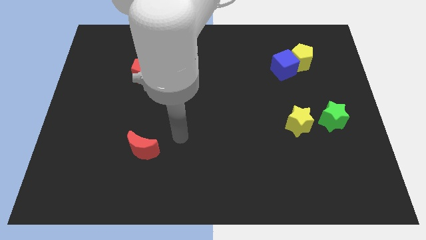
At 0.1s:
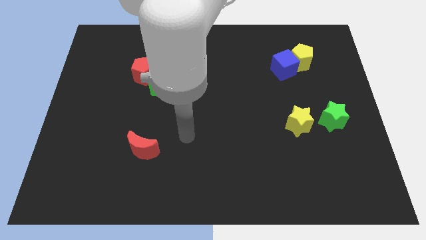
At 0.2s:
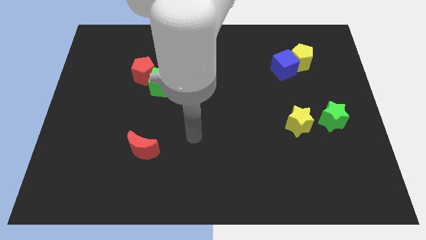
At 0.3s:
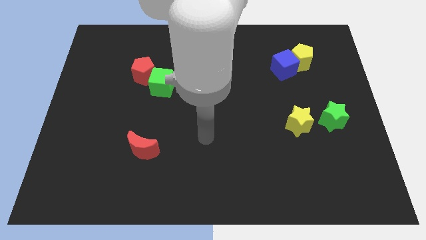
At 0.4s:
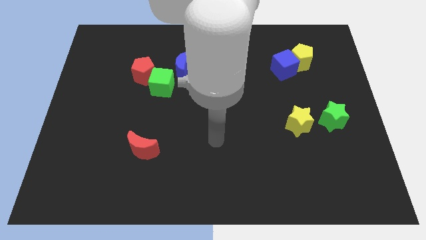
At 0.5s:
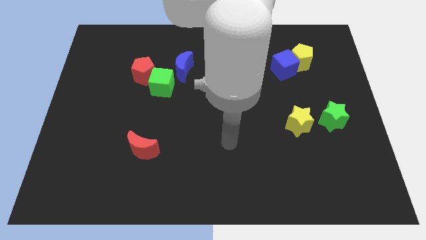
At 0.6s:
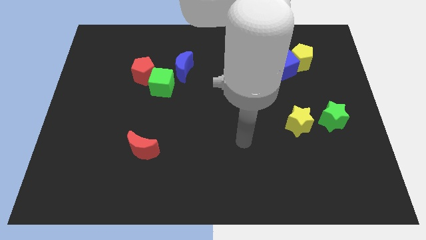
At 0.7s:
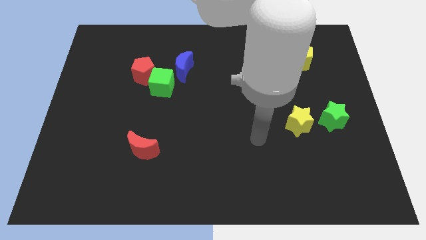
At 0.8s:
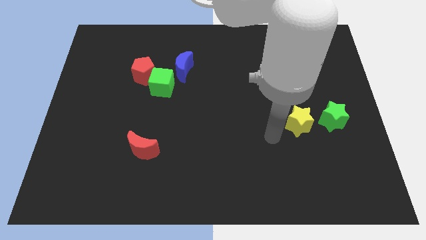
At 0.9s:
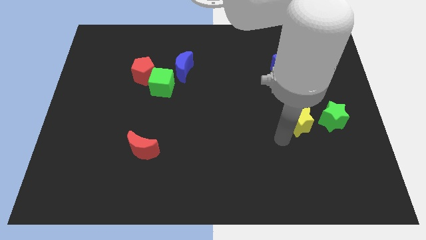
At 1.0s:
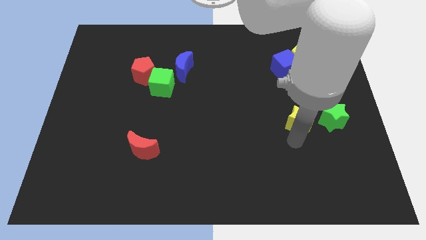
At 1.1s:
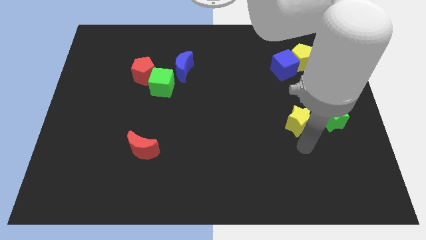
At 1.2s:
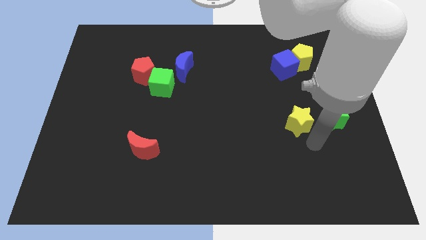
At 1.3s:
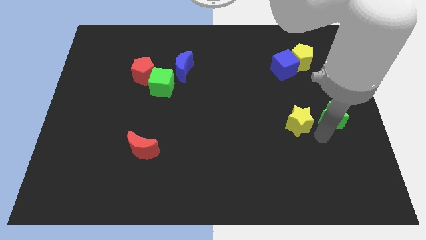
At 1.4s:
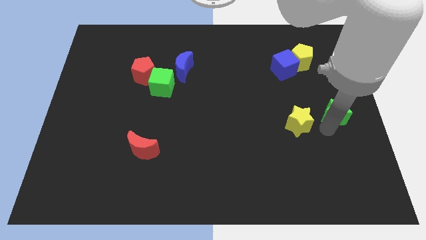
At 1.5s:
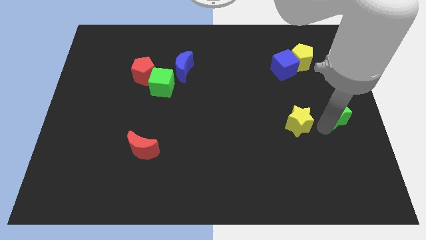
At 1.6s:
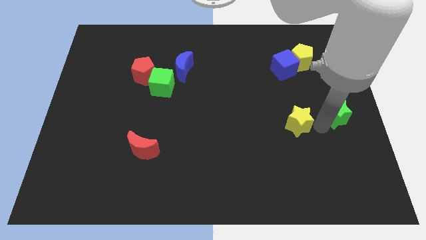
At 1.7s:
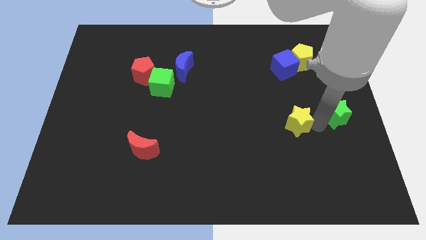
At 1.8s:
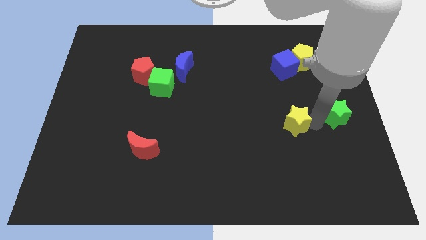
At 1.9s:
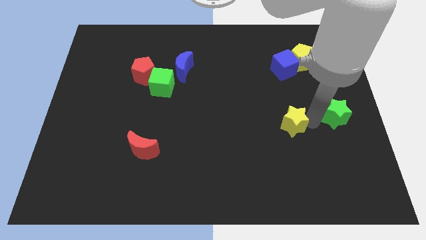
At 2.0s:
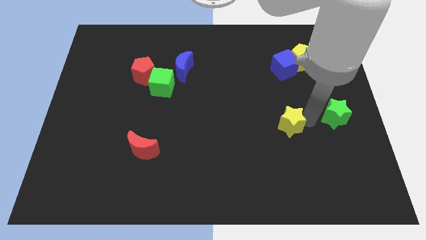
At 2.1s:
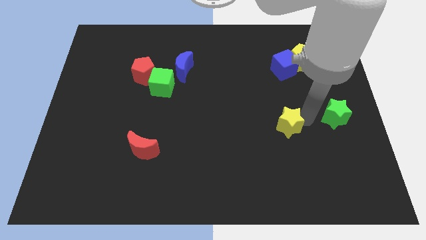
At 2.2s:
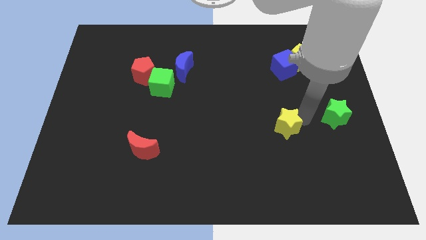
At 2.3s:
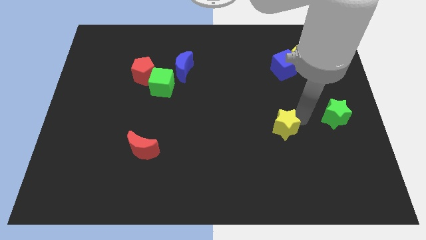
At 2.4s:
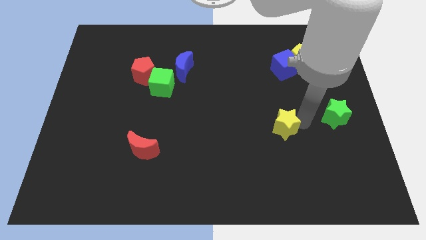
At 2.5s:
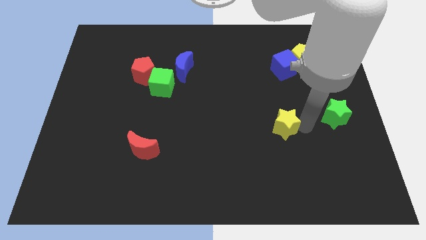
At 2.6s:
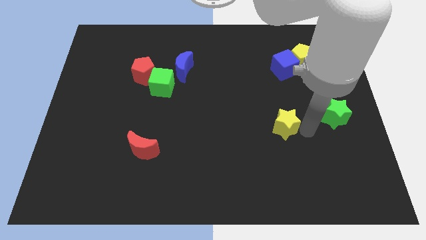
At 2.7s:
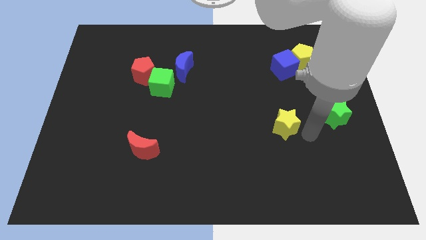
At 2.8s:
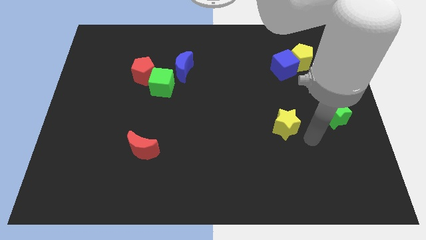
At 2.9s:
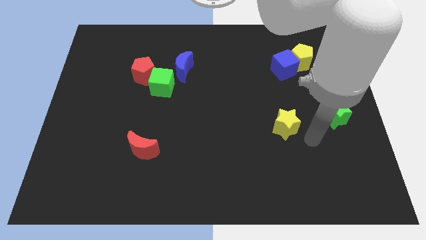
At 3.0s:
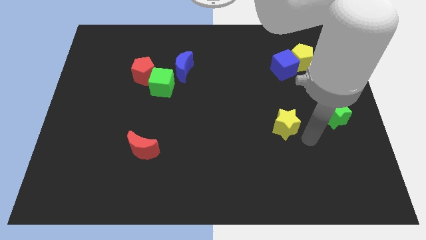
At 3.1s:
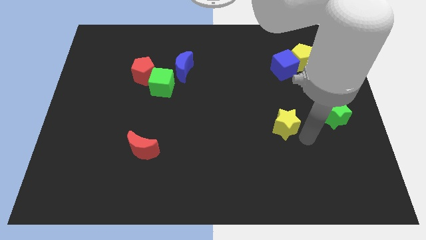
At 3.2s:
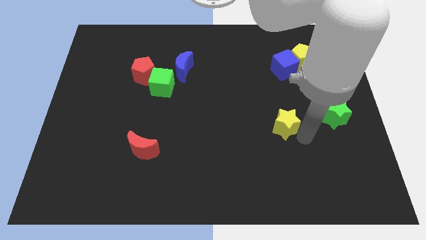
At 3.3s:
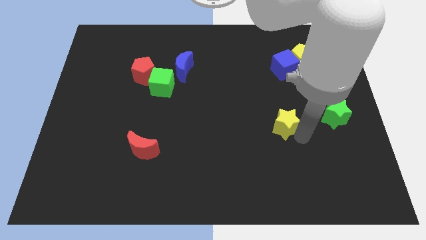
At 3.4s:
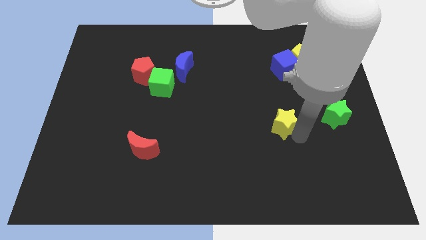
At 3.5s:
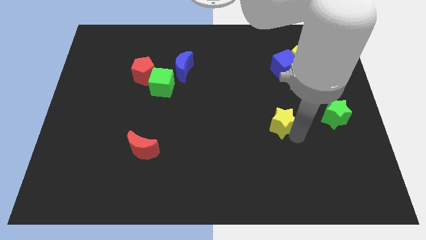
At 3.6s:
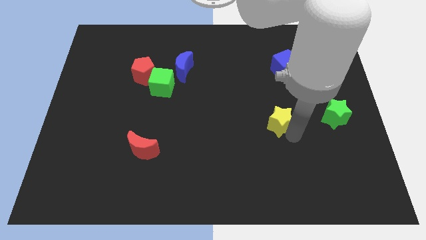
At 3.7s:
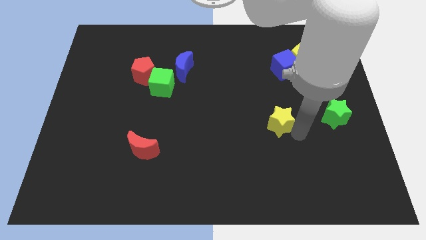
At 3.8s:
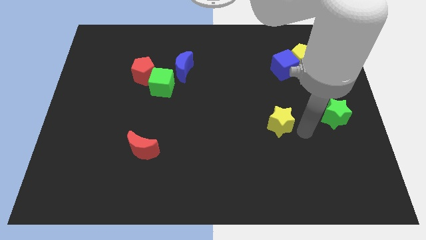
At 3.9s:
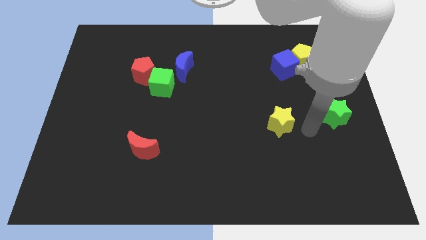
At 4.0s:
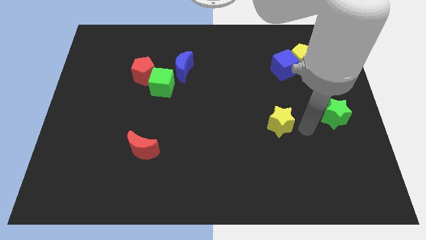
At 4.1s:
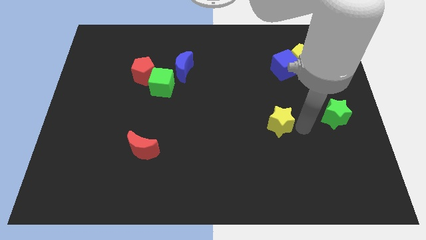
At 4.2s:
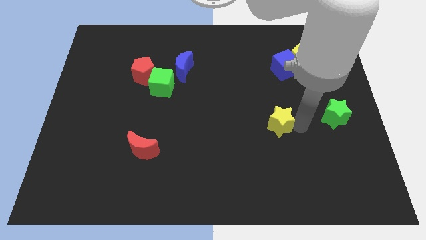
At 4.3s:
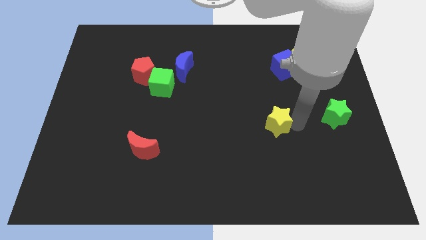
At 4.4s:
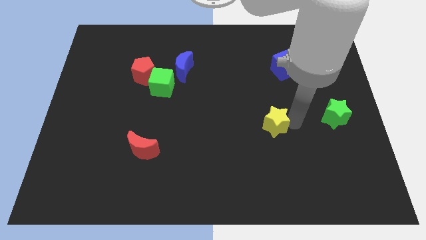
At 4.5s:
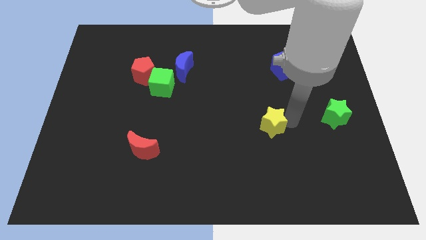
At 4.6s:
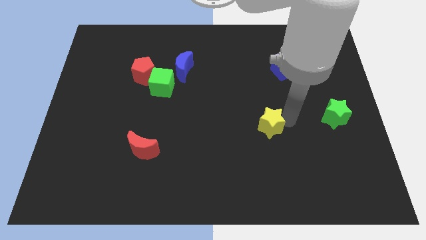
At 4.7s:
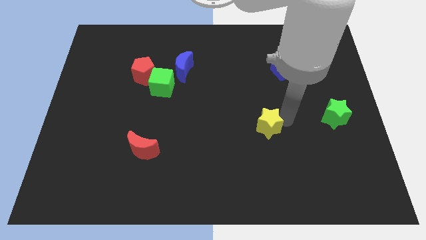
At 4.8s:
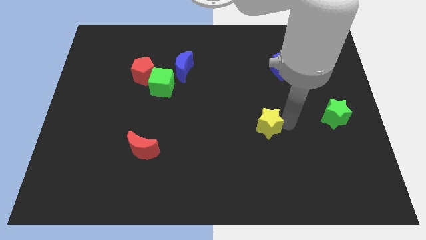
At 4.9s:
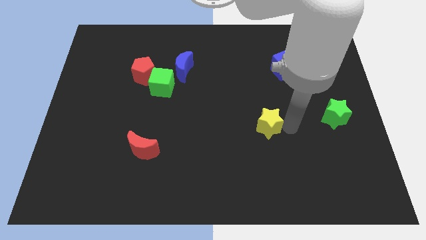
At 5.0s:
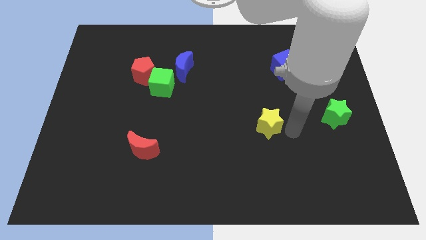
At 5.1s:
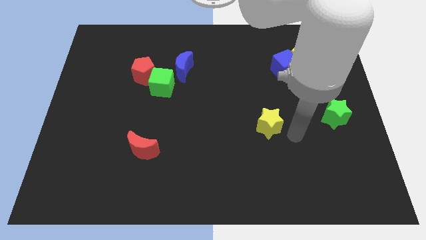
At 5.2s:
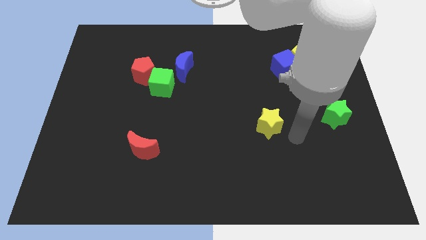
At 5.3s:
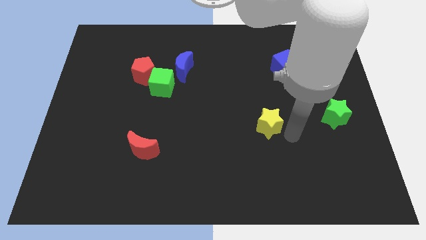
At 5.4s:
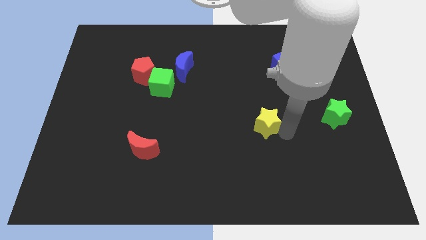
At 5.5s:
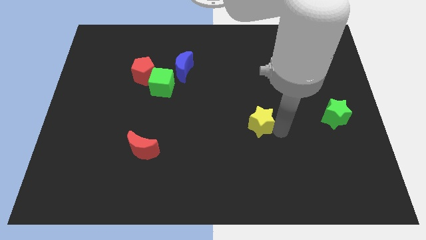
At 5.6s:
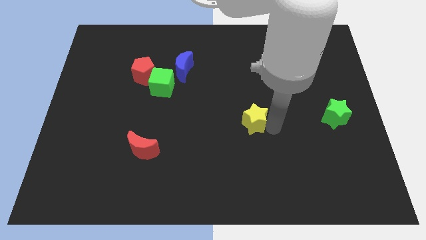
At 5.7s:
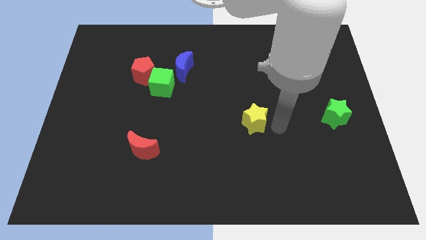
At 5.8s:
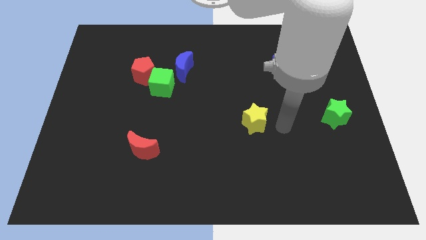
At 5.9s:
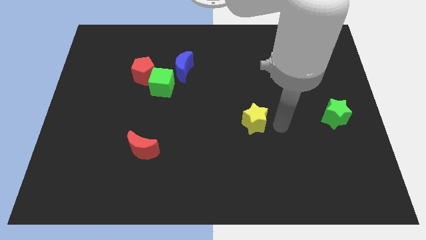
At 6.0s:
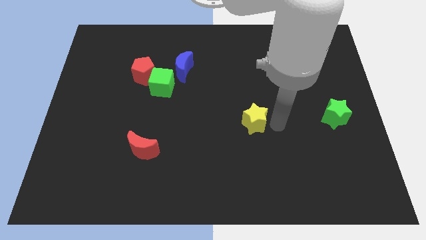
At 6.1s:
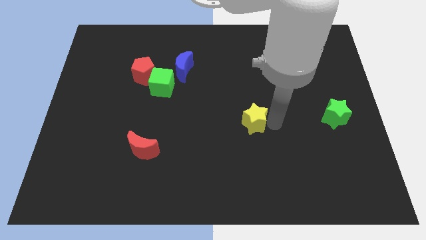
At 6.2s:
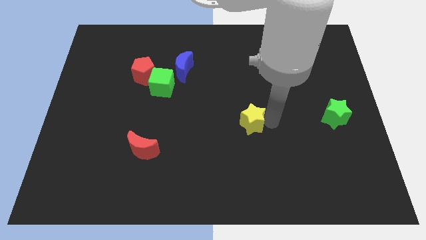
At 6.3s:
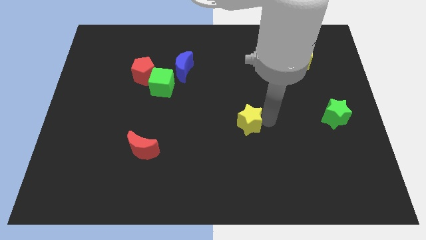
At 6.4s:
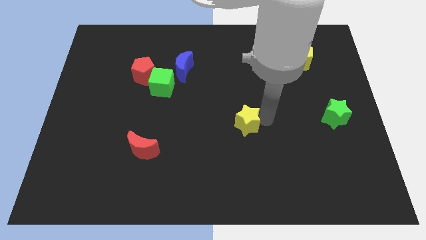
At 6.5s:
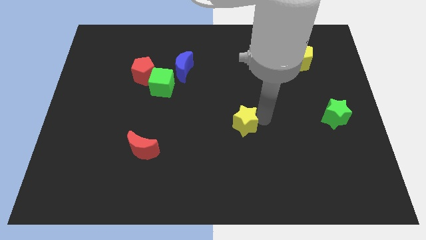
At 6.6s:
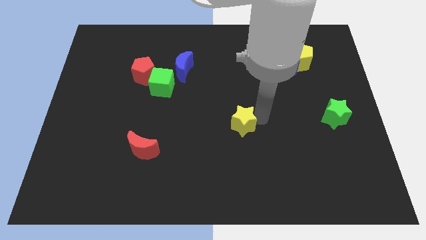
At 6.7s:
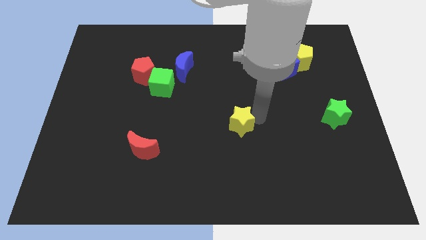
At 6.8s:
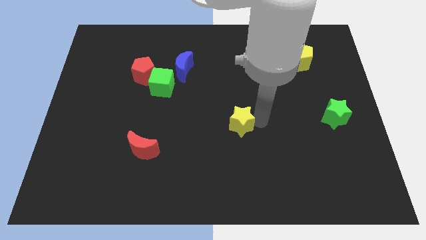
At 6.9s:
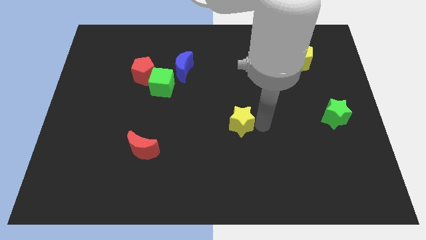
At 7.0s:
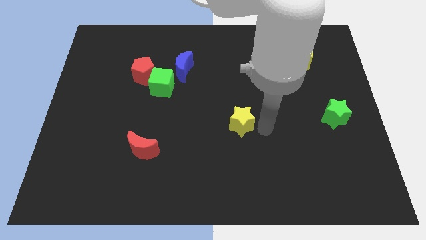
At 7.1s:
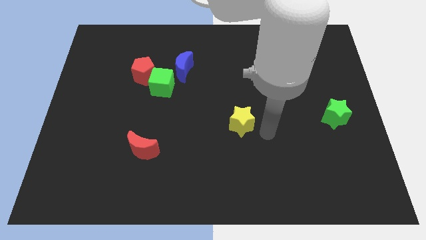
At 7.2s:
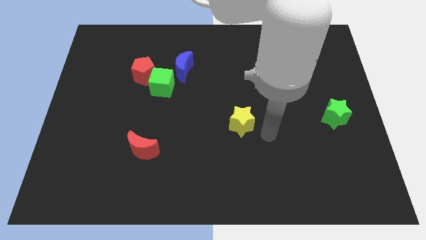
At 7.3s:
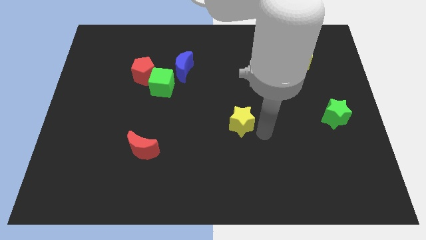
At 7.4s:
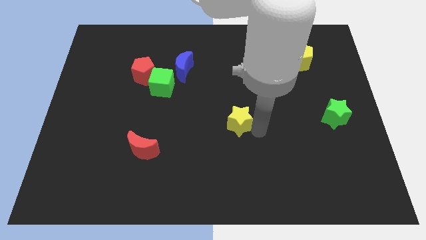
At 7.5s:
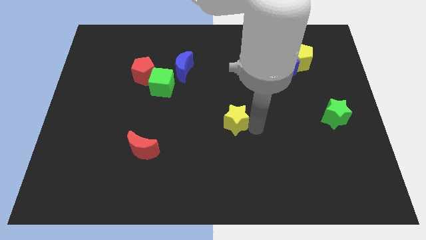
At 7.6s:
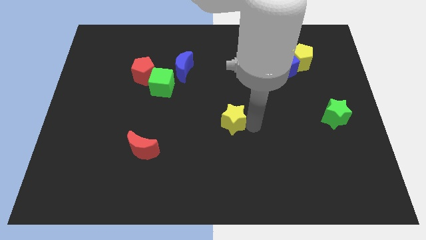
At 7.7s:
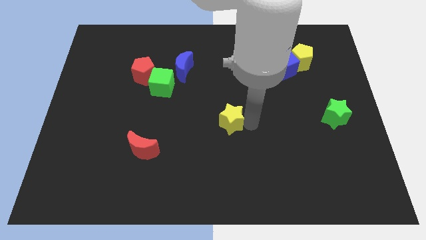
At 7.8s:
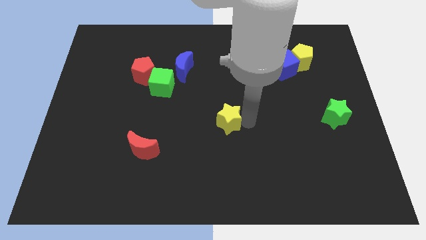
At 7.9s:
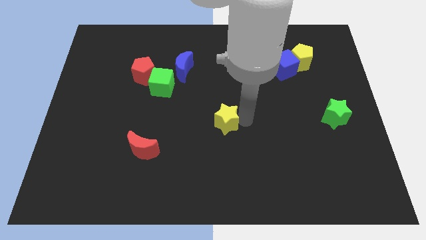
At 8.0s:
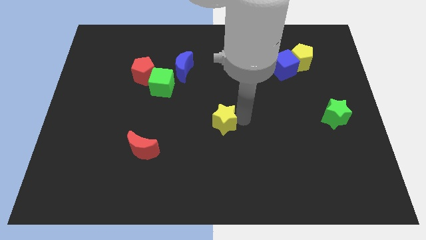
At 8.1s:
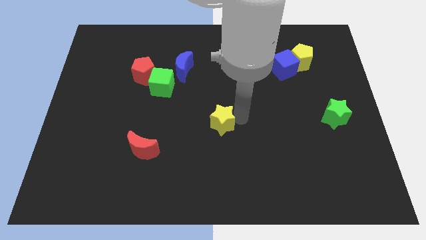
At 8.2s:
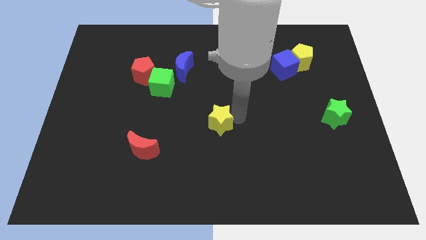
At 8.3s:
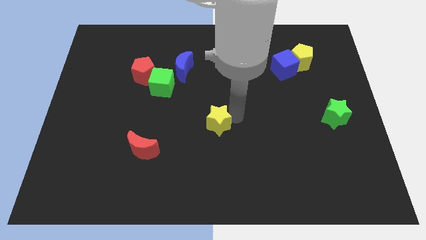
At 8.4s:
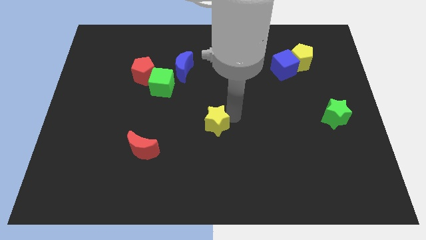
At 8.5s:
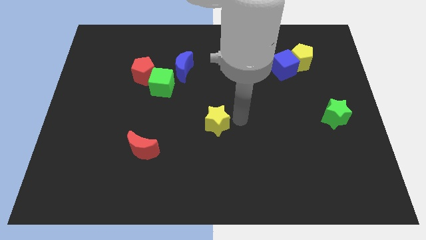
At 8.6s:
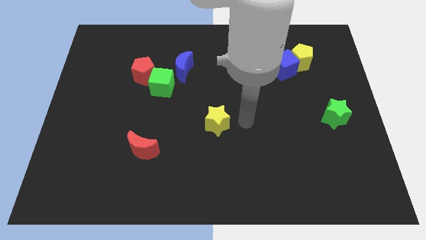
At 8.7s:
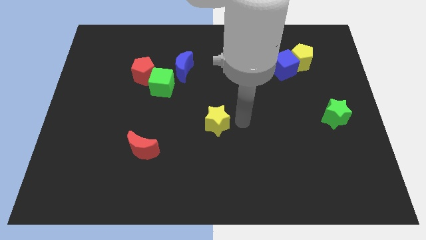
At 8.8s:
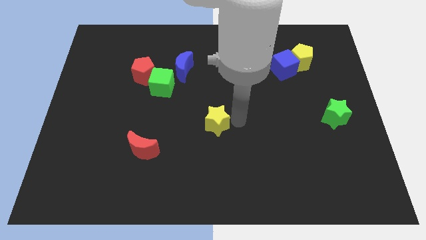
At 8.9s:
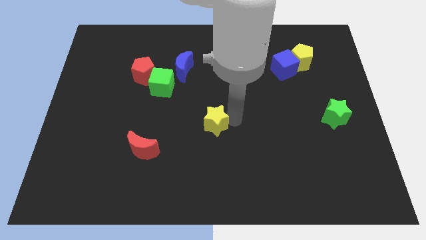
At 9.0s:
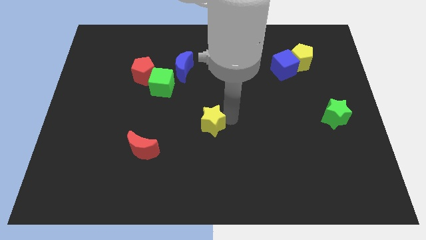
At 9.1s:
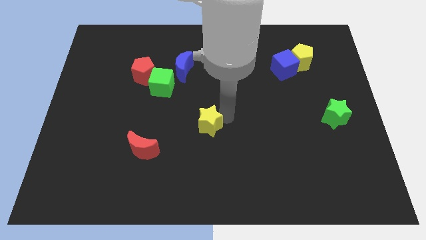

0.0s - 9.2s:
slide the yellow star to the left
